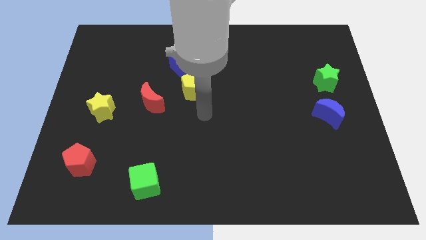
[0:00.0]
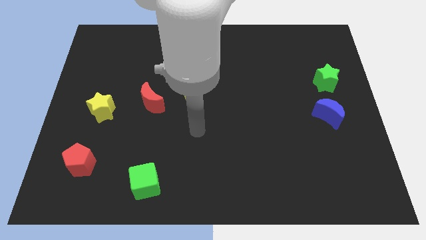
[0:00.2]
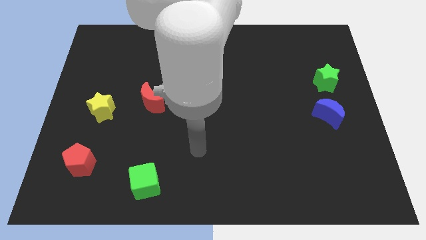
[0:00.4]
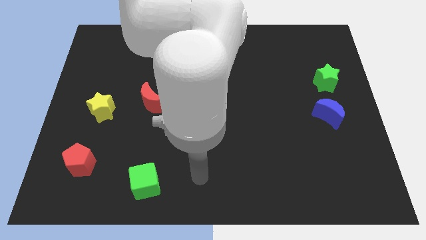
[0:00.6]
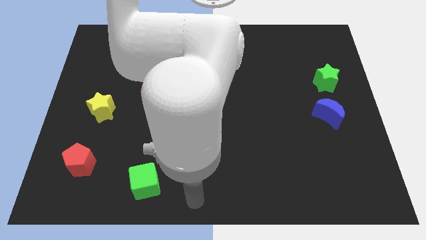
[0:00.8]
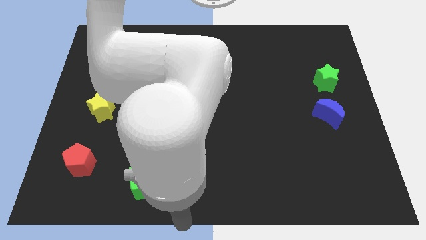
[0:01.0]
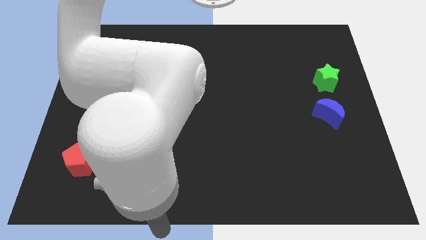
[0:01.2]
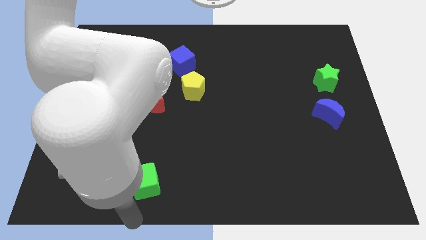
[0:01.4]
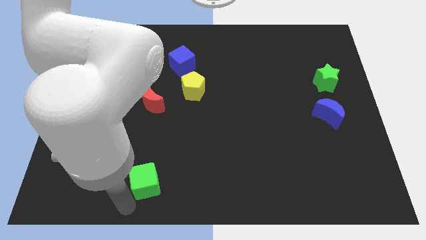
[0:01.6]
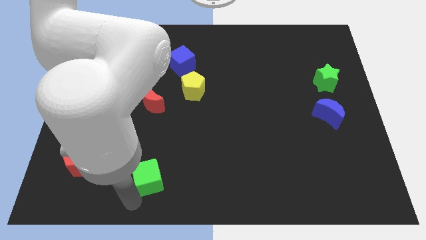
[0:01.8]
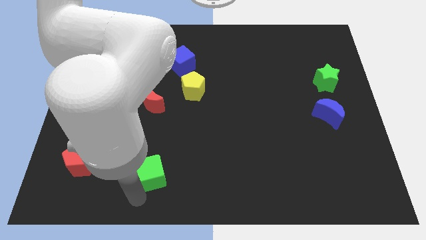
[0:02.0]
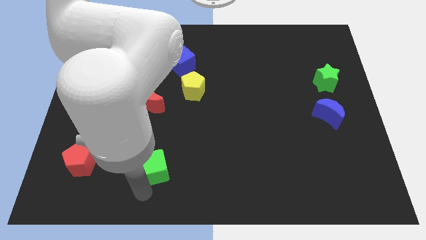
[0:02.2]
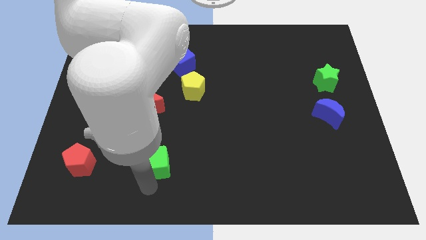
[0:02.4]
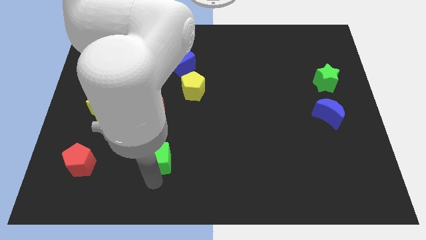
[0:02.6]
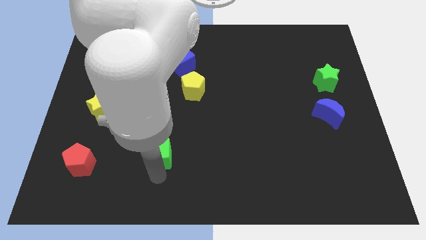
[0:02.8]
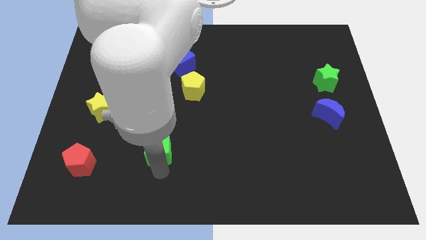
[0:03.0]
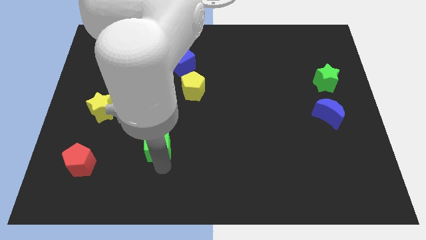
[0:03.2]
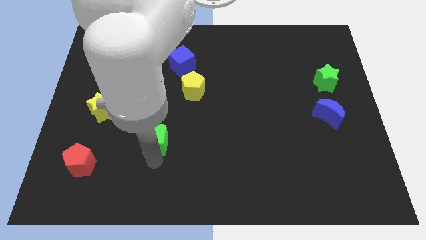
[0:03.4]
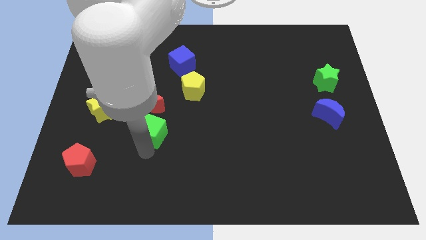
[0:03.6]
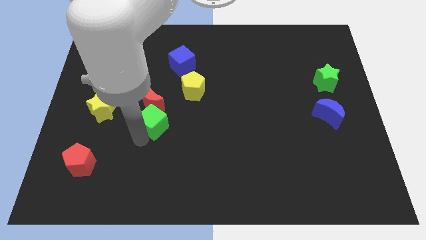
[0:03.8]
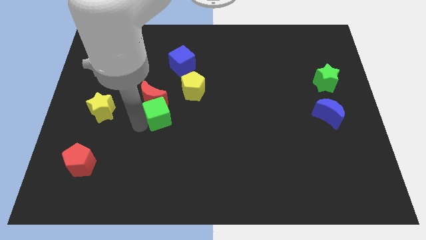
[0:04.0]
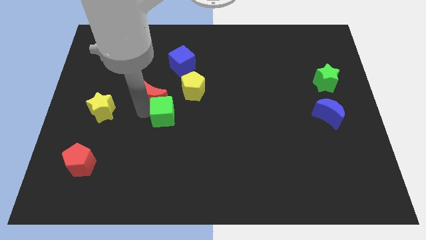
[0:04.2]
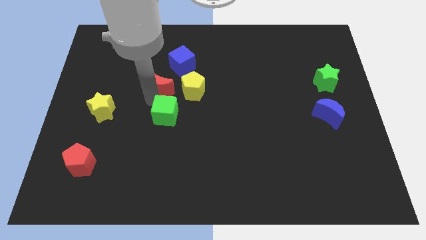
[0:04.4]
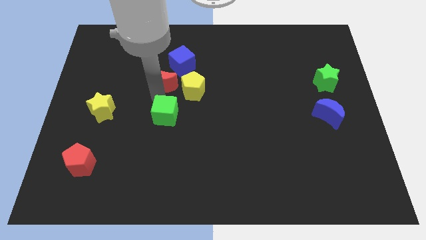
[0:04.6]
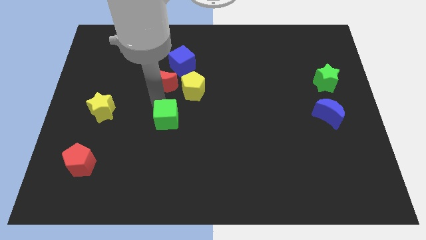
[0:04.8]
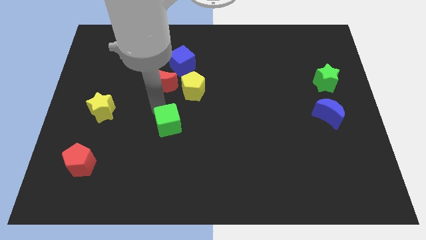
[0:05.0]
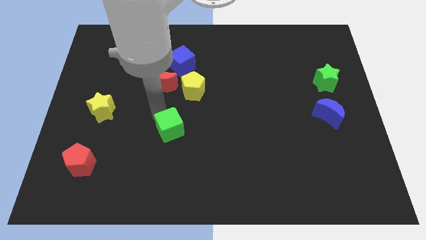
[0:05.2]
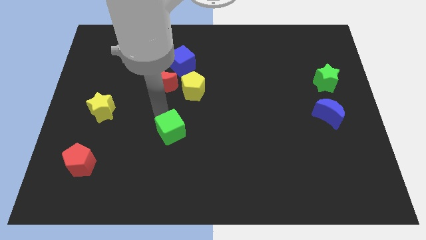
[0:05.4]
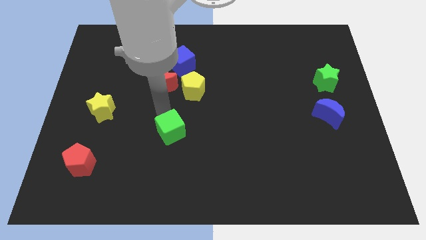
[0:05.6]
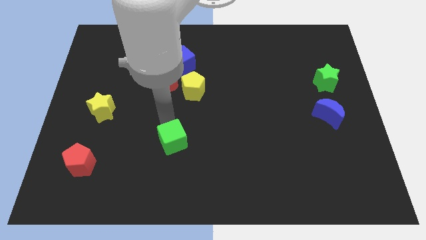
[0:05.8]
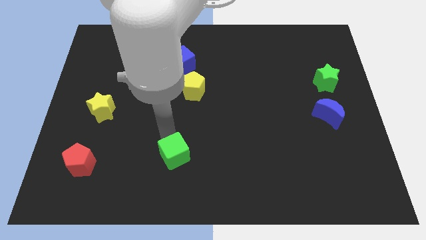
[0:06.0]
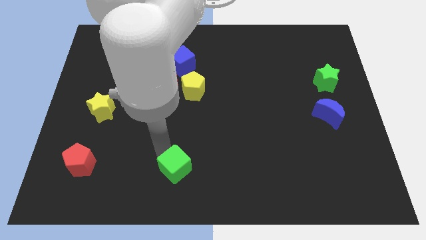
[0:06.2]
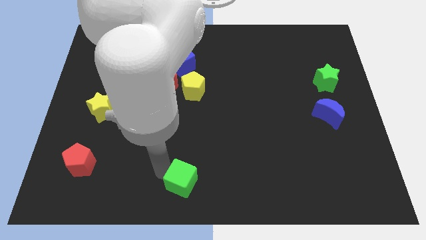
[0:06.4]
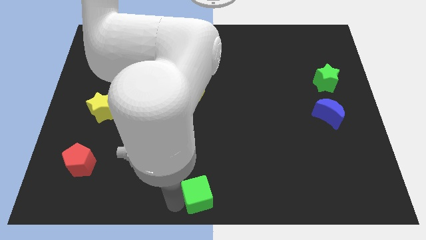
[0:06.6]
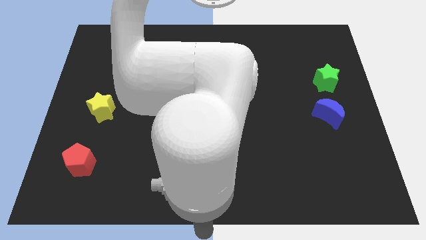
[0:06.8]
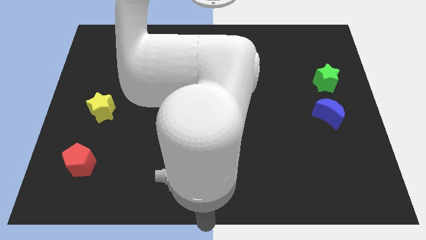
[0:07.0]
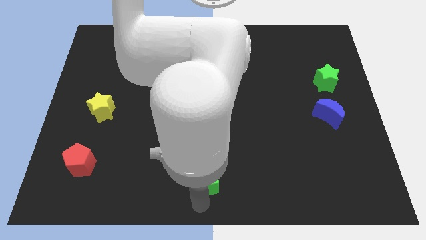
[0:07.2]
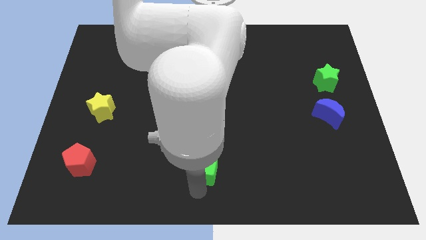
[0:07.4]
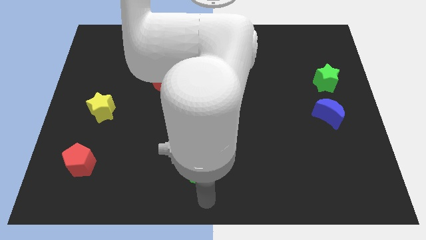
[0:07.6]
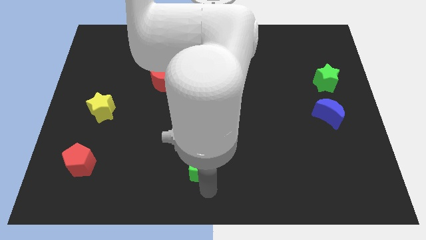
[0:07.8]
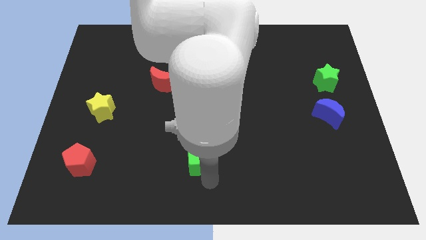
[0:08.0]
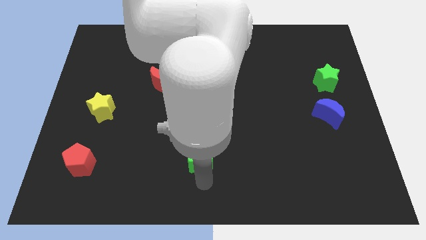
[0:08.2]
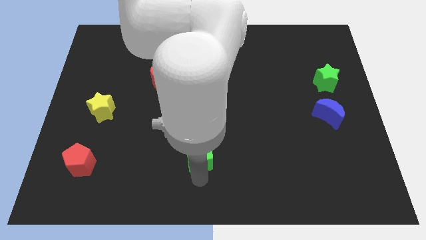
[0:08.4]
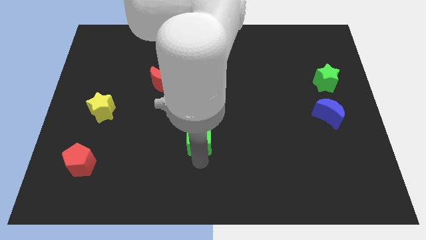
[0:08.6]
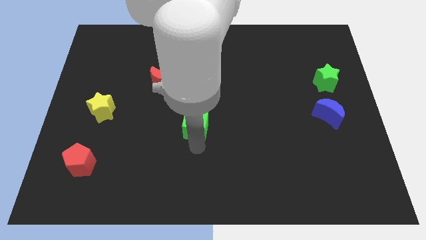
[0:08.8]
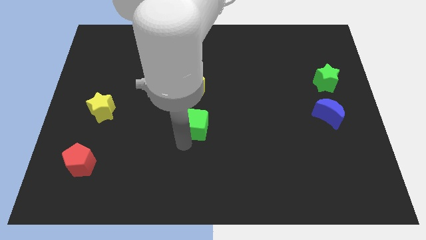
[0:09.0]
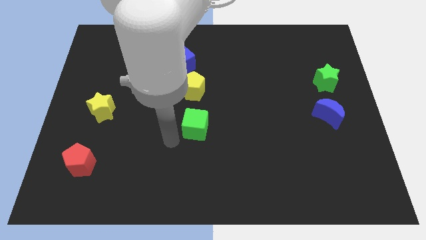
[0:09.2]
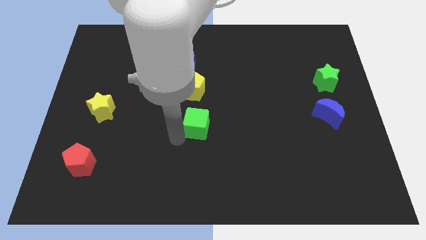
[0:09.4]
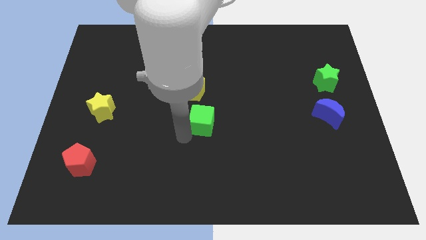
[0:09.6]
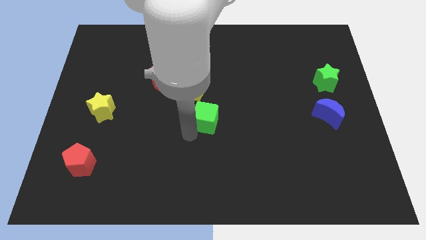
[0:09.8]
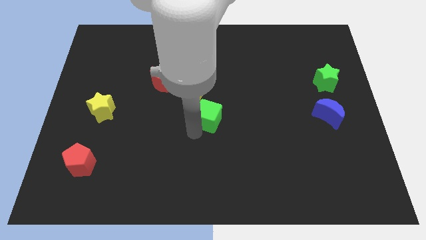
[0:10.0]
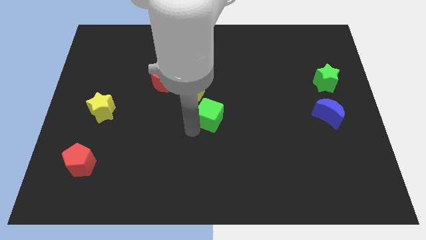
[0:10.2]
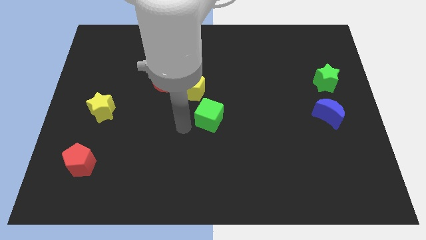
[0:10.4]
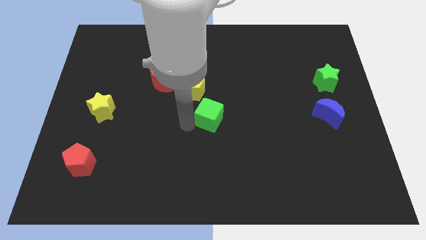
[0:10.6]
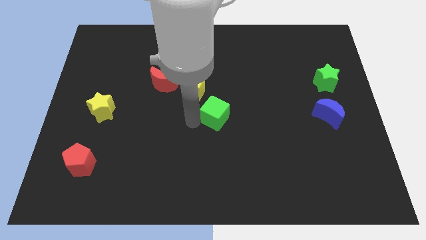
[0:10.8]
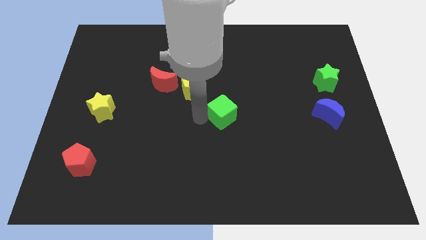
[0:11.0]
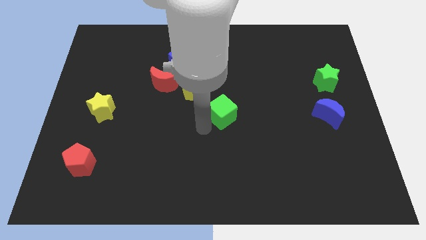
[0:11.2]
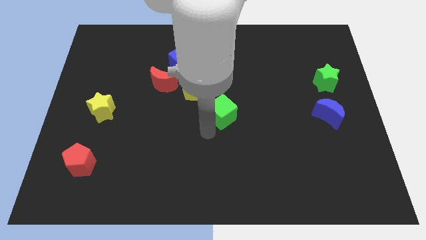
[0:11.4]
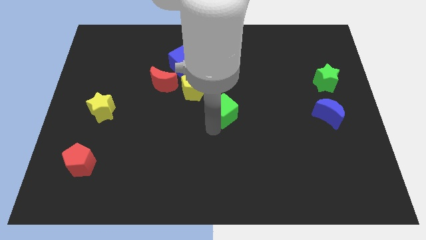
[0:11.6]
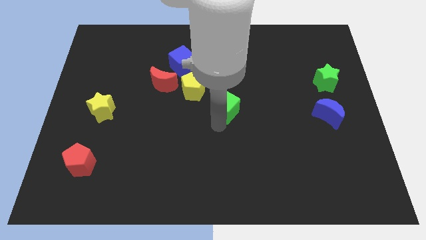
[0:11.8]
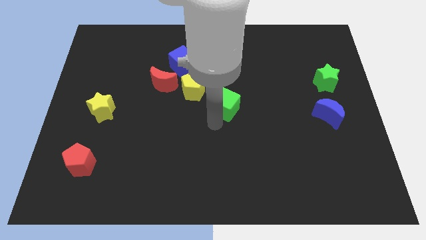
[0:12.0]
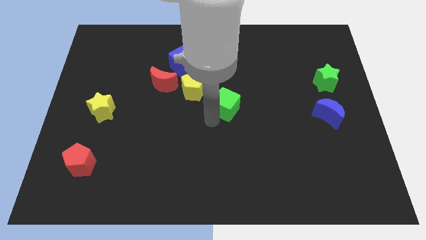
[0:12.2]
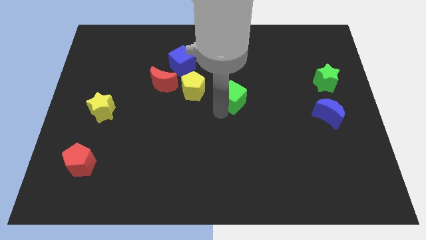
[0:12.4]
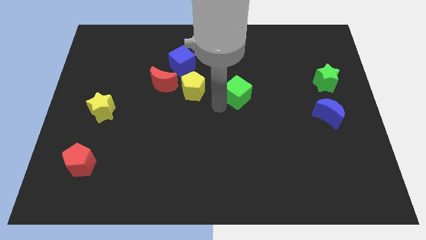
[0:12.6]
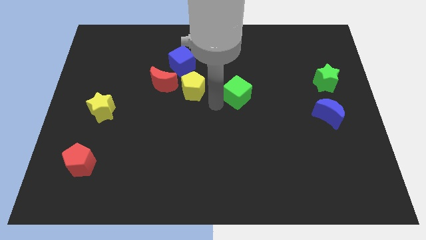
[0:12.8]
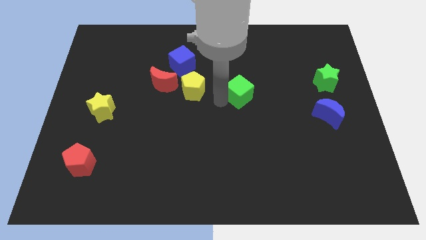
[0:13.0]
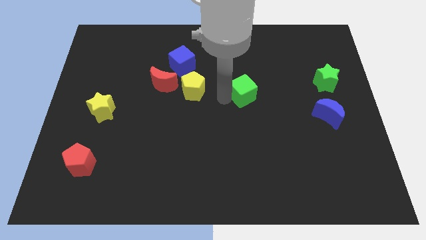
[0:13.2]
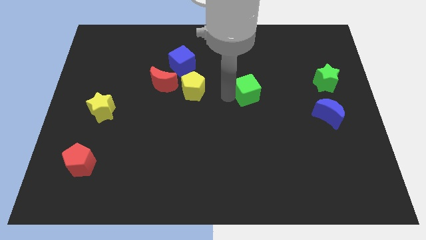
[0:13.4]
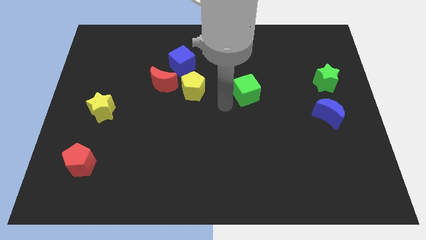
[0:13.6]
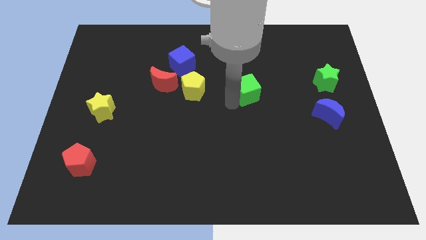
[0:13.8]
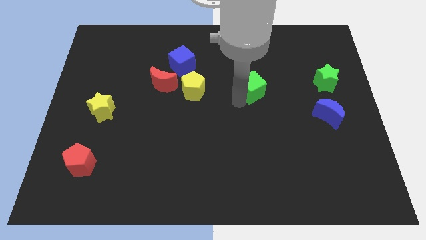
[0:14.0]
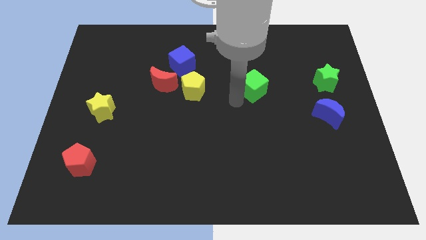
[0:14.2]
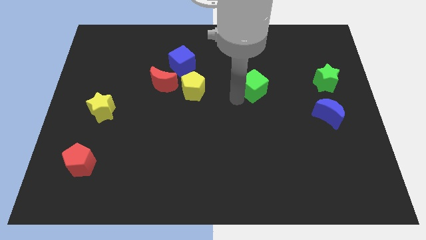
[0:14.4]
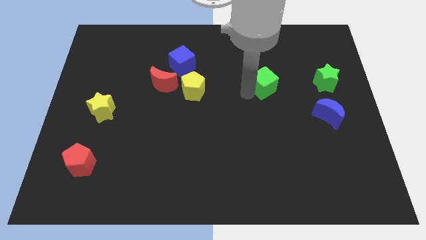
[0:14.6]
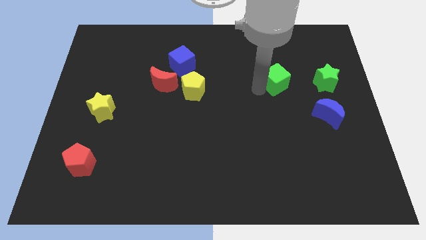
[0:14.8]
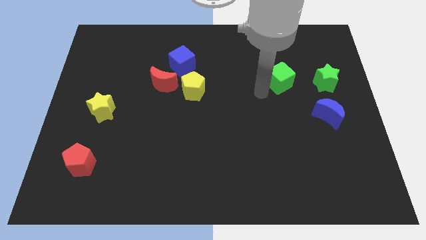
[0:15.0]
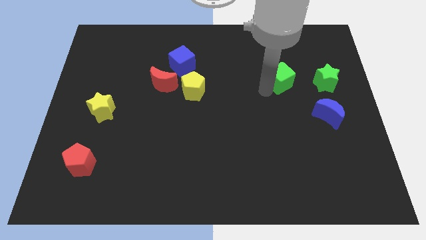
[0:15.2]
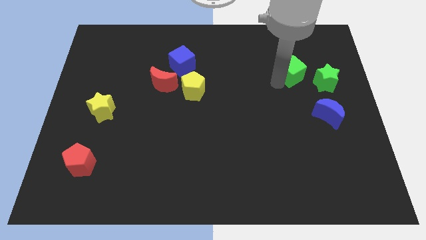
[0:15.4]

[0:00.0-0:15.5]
push the green cube diagonally up and to the left of the green star
